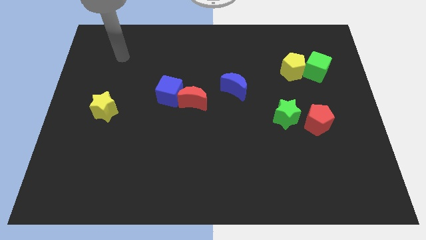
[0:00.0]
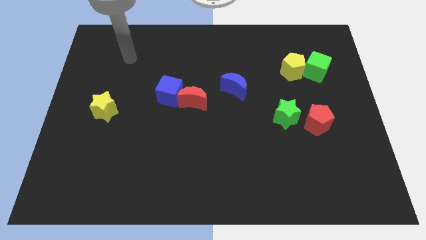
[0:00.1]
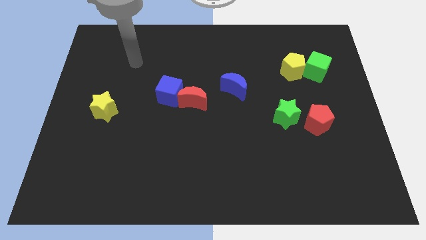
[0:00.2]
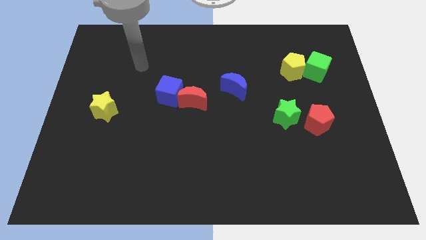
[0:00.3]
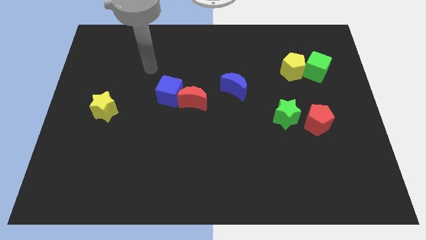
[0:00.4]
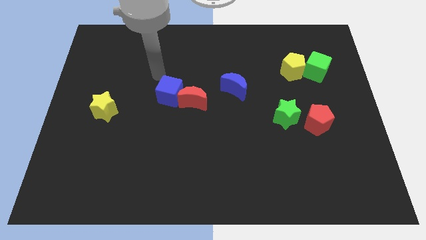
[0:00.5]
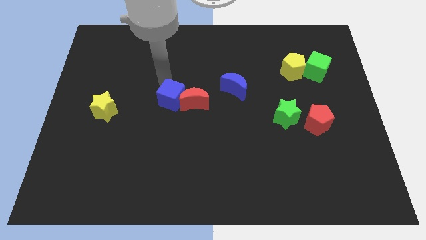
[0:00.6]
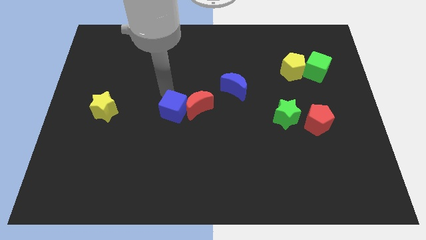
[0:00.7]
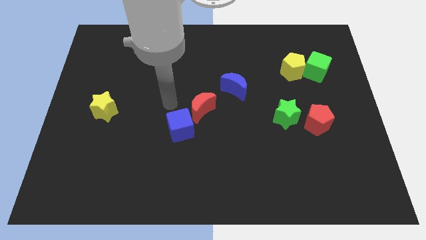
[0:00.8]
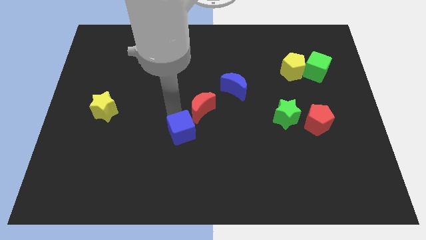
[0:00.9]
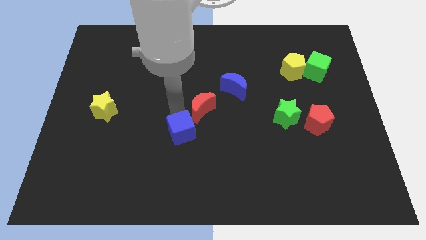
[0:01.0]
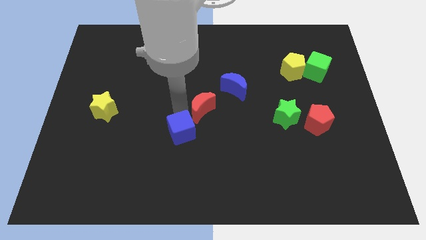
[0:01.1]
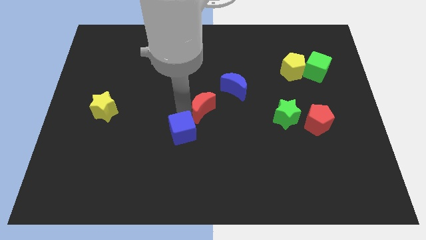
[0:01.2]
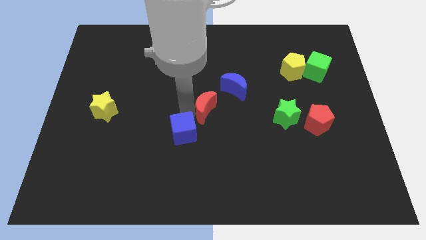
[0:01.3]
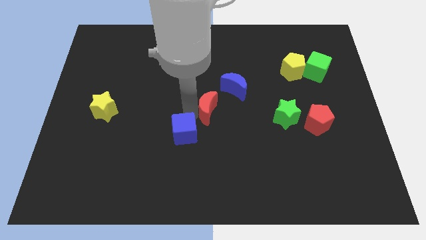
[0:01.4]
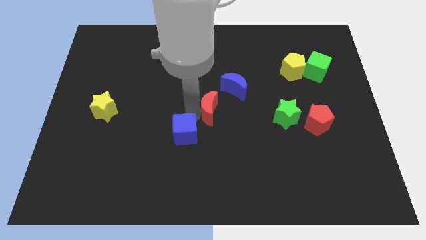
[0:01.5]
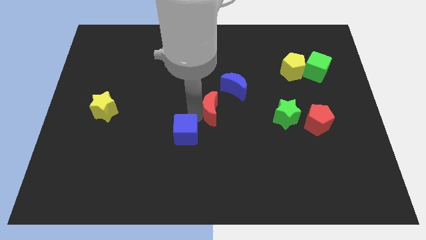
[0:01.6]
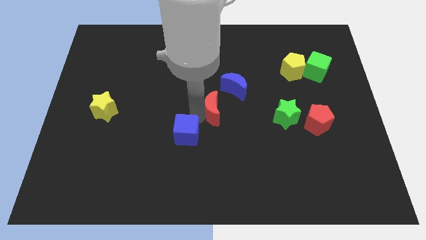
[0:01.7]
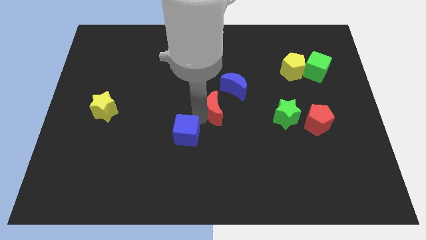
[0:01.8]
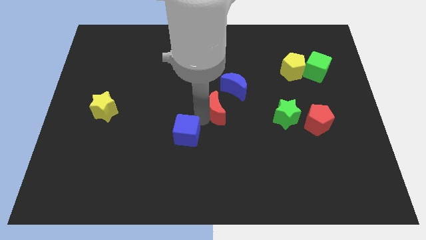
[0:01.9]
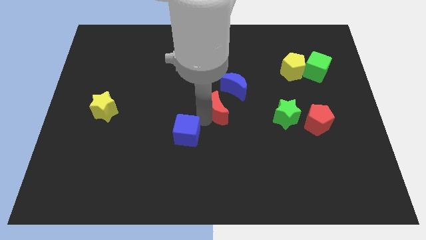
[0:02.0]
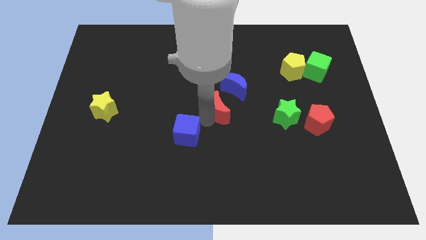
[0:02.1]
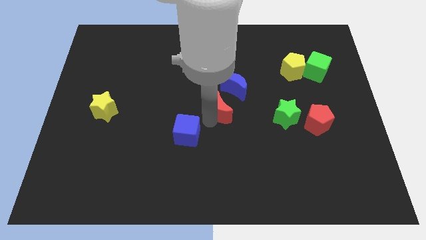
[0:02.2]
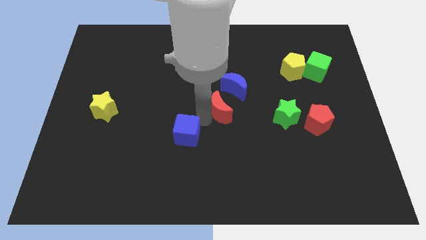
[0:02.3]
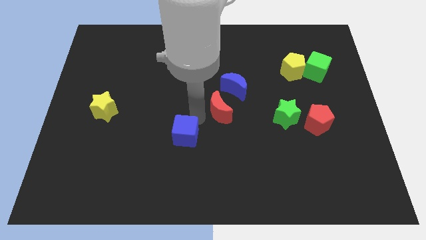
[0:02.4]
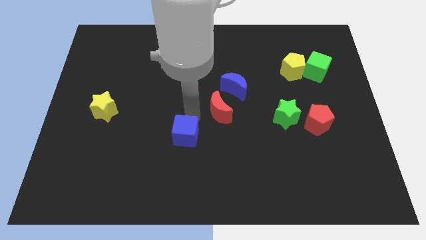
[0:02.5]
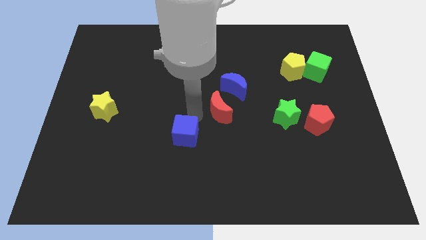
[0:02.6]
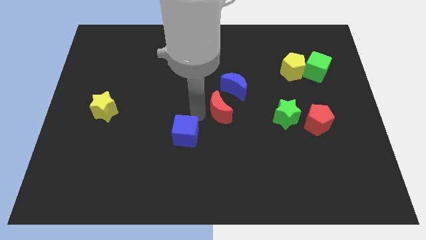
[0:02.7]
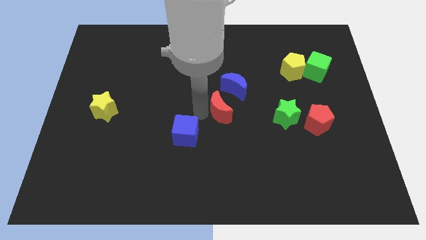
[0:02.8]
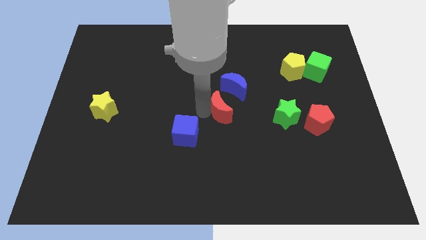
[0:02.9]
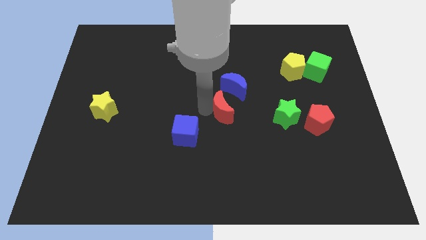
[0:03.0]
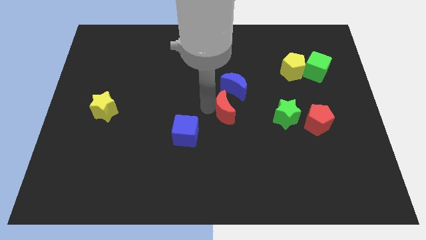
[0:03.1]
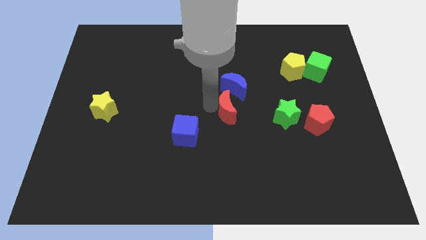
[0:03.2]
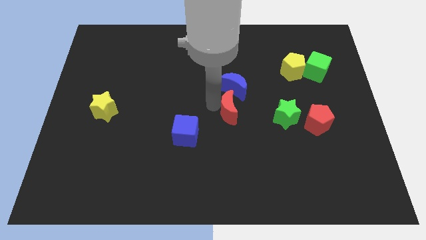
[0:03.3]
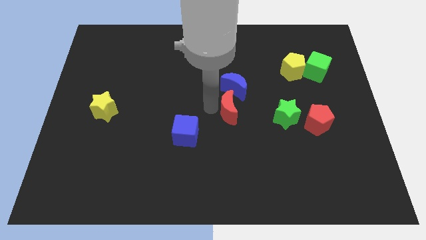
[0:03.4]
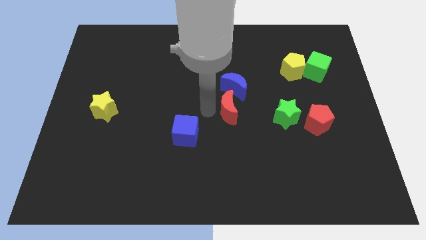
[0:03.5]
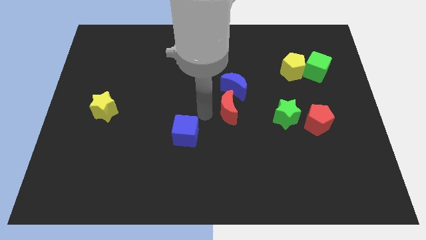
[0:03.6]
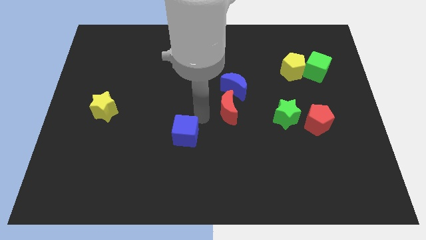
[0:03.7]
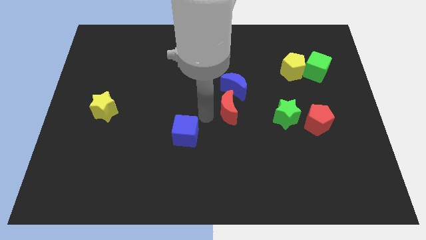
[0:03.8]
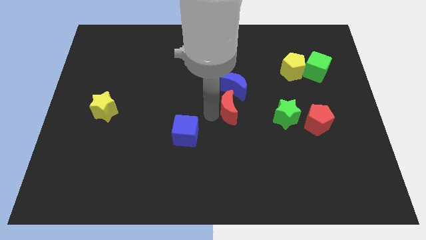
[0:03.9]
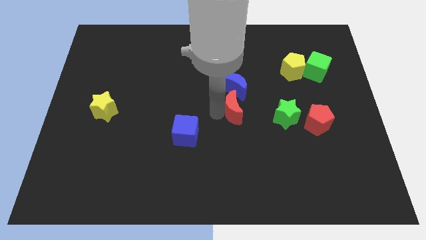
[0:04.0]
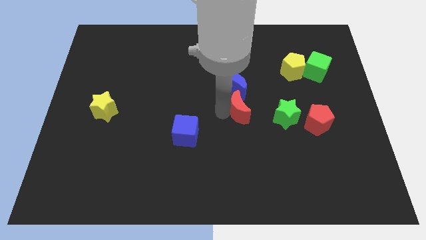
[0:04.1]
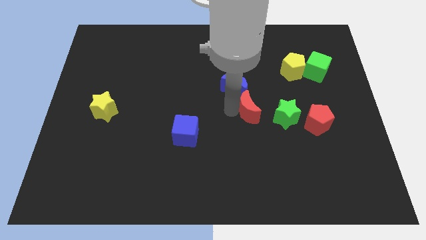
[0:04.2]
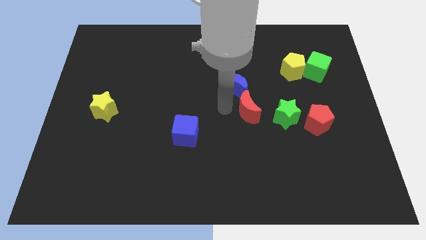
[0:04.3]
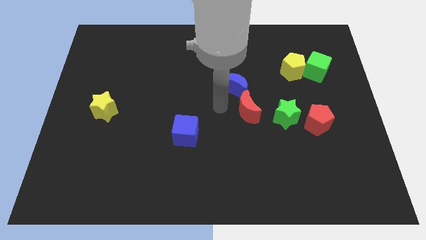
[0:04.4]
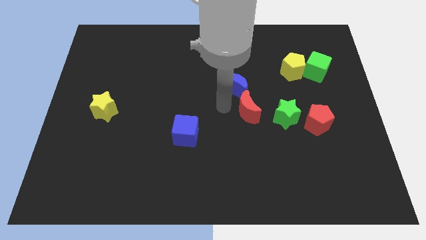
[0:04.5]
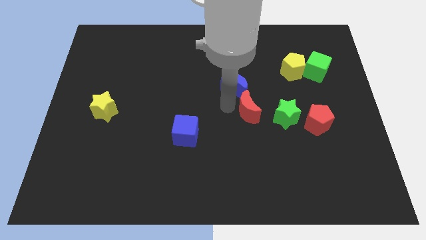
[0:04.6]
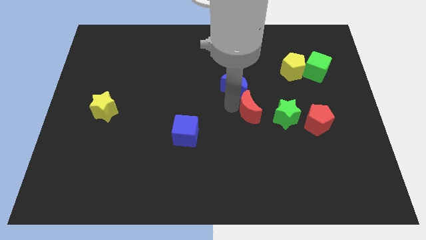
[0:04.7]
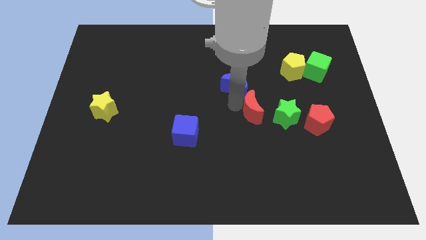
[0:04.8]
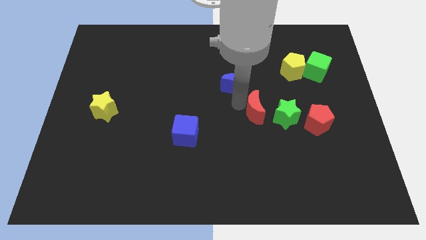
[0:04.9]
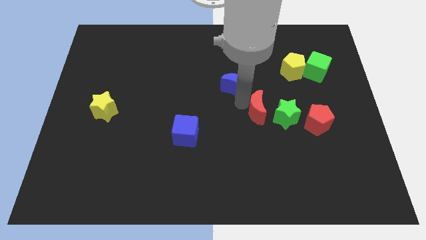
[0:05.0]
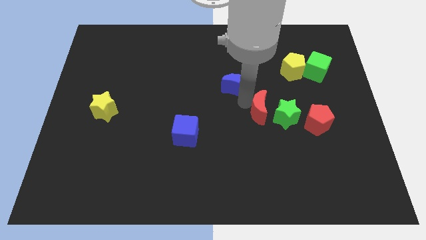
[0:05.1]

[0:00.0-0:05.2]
move the red moon close to the green star

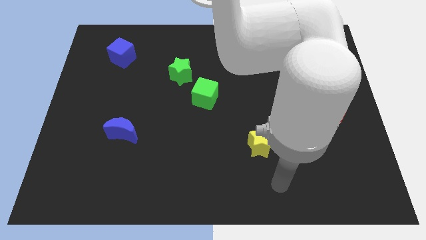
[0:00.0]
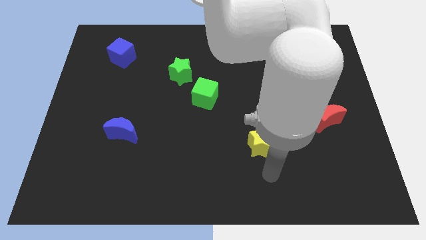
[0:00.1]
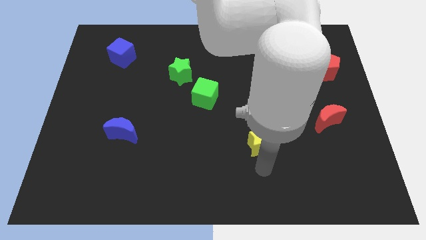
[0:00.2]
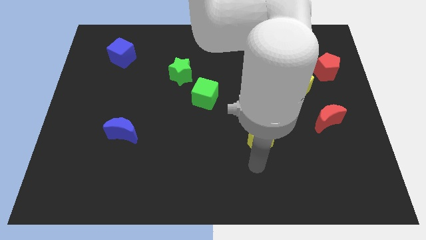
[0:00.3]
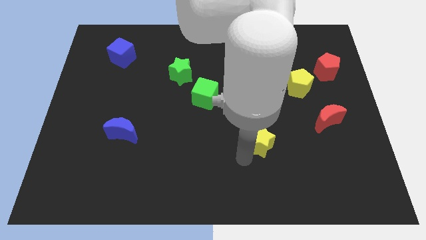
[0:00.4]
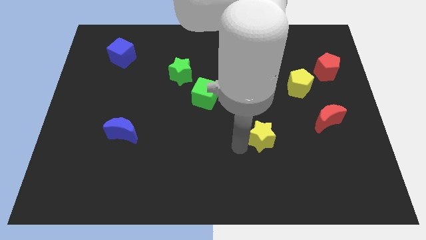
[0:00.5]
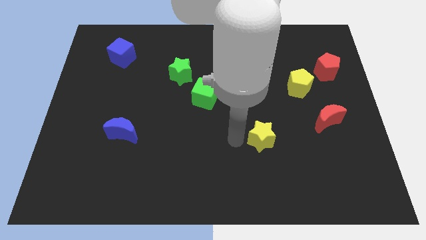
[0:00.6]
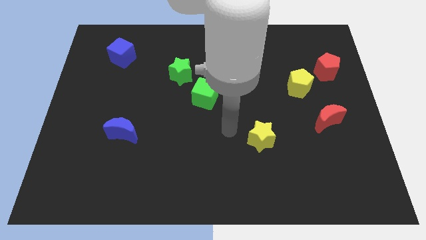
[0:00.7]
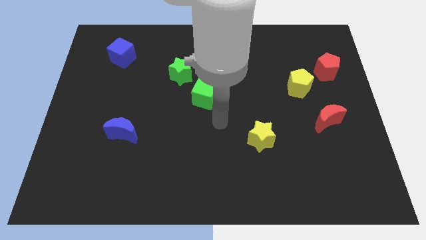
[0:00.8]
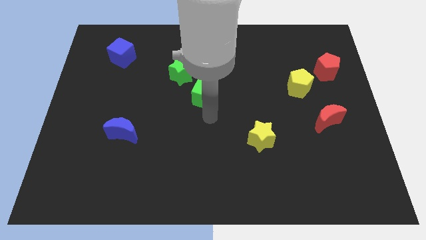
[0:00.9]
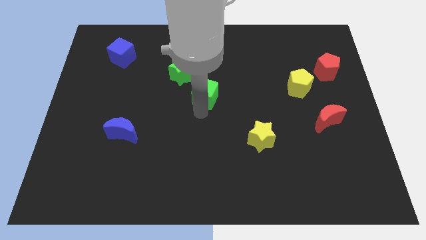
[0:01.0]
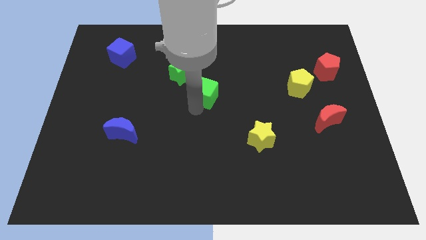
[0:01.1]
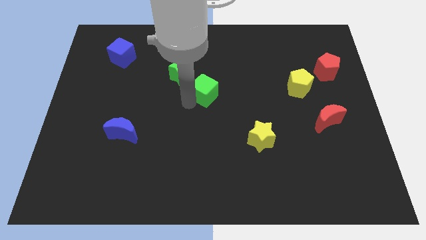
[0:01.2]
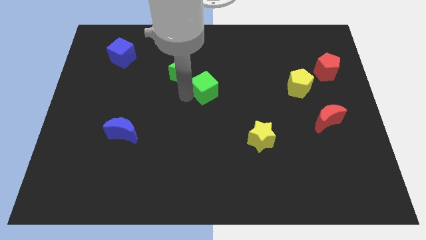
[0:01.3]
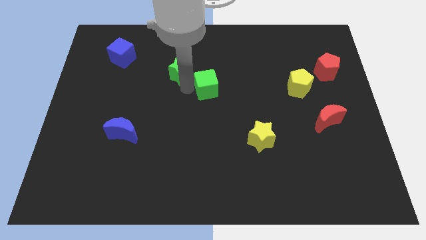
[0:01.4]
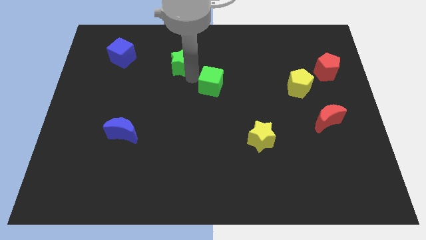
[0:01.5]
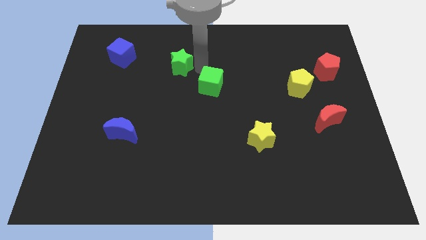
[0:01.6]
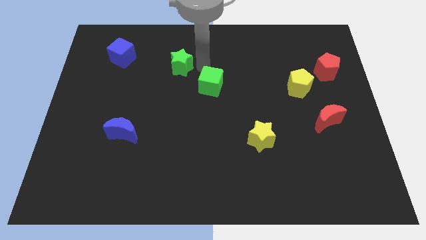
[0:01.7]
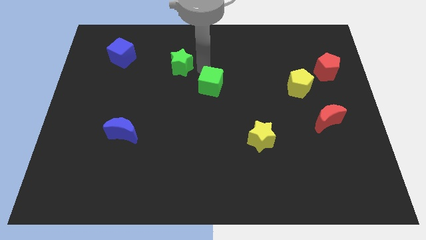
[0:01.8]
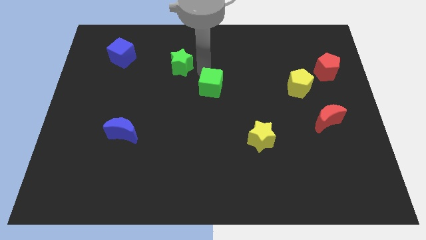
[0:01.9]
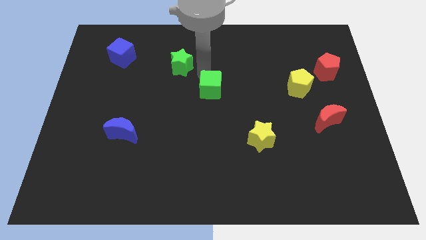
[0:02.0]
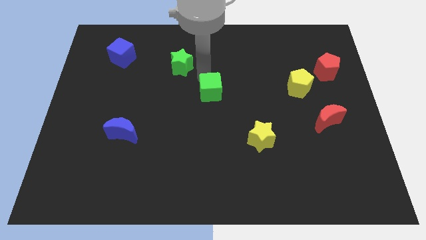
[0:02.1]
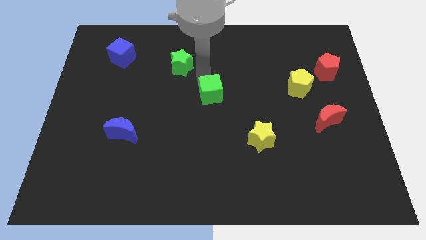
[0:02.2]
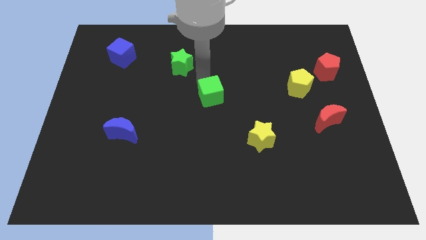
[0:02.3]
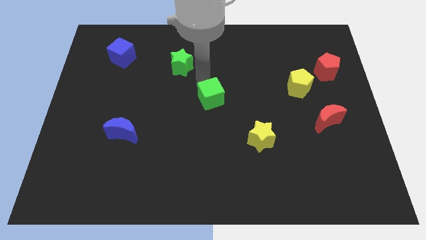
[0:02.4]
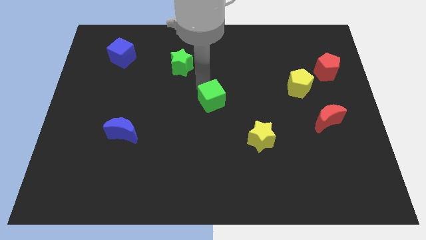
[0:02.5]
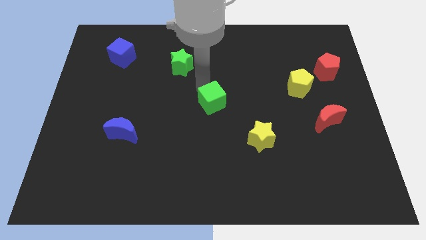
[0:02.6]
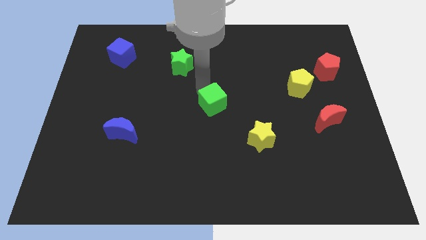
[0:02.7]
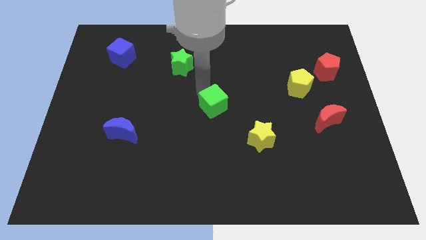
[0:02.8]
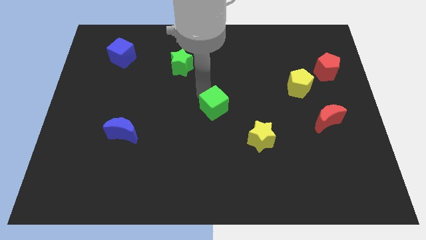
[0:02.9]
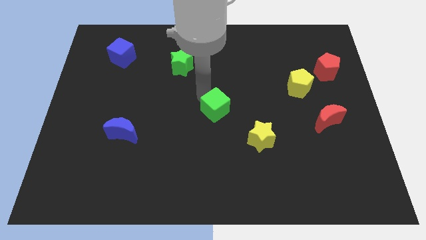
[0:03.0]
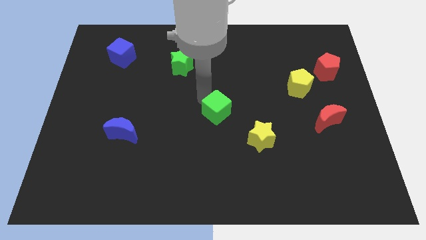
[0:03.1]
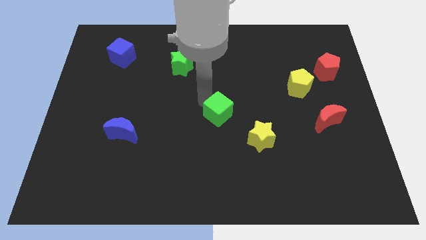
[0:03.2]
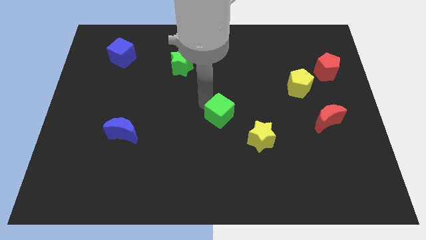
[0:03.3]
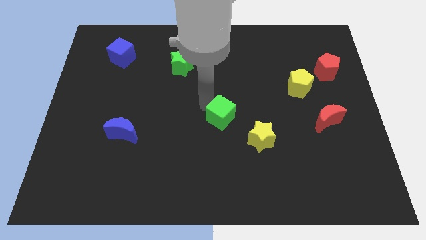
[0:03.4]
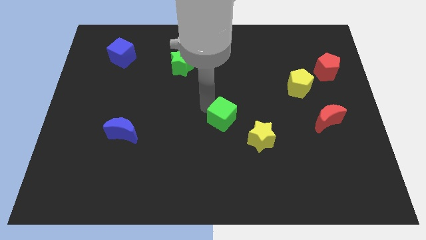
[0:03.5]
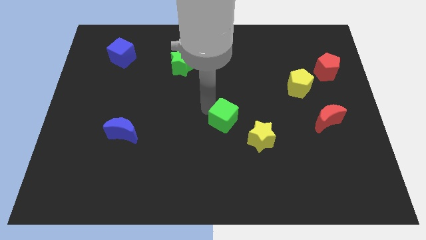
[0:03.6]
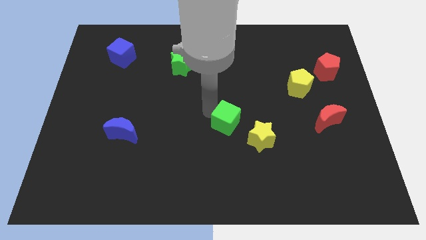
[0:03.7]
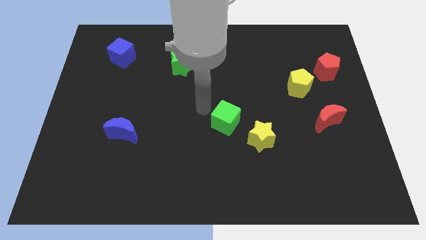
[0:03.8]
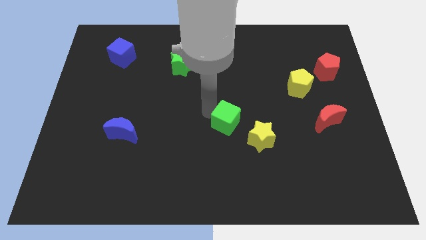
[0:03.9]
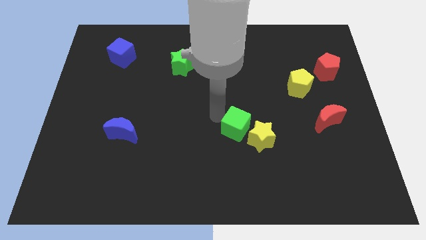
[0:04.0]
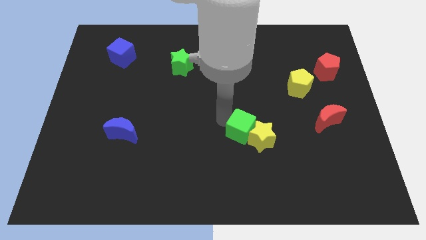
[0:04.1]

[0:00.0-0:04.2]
push the green cube towards the yellow star
